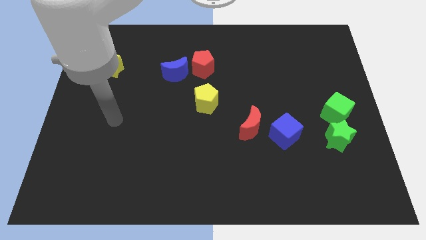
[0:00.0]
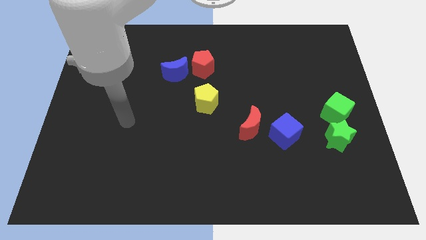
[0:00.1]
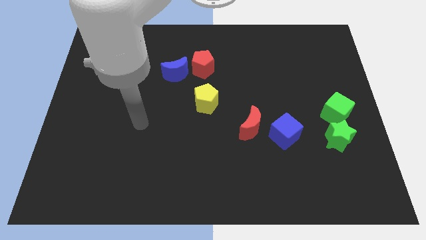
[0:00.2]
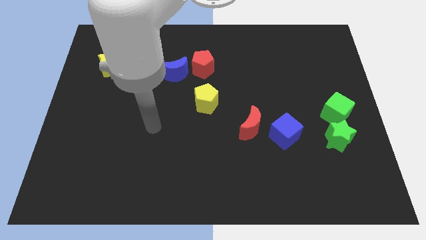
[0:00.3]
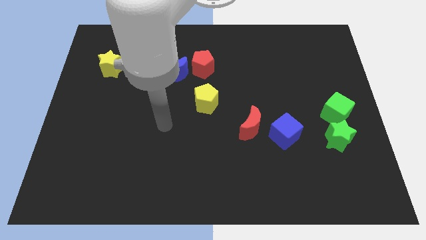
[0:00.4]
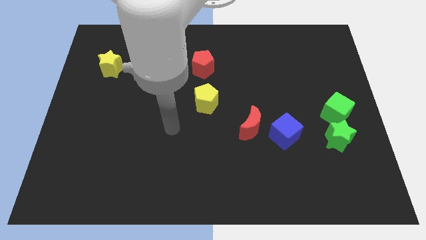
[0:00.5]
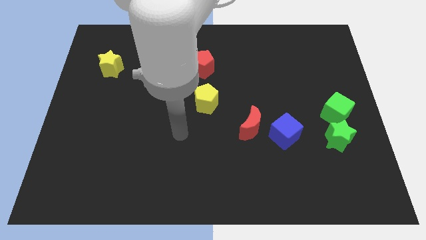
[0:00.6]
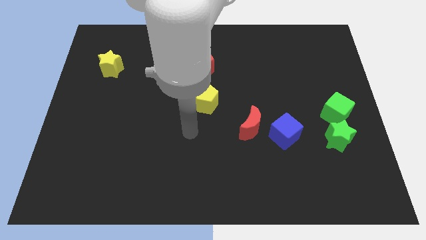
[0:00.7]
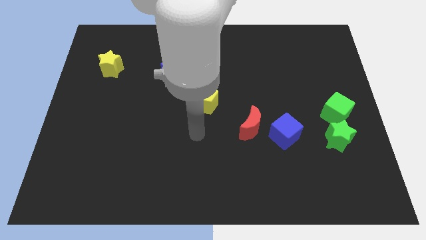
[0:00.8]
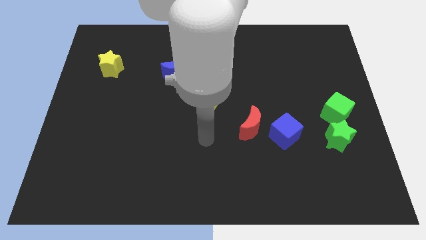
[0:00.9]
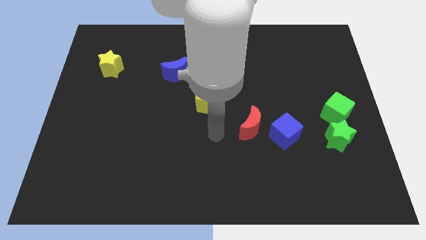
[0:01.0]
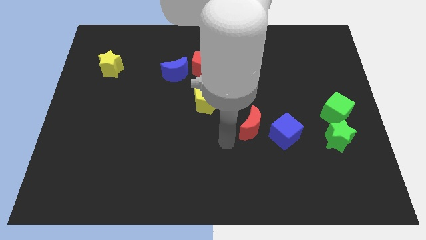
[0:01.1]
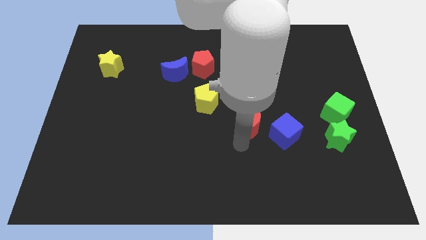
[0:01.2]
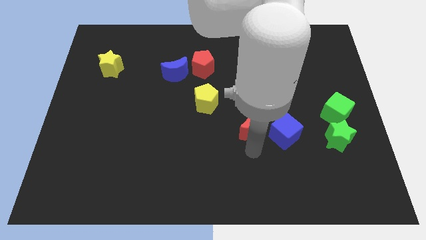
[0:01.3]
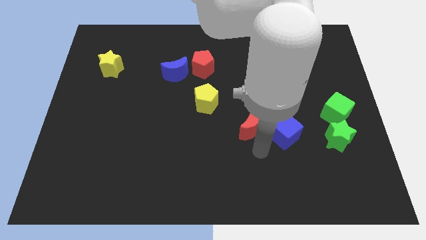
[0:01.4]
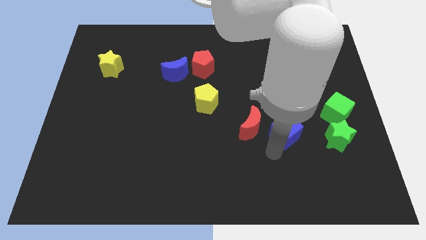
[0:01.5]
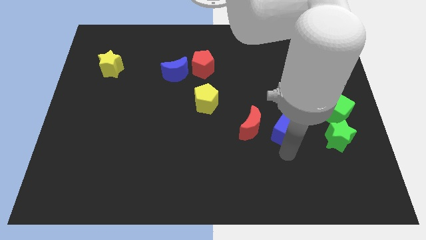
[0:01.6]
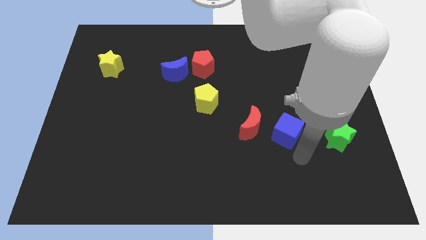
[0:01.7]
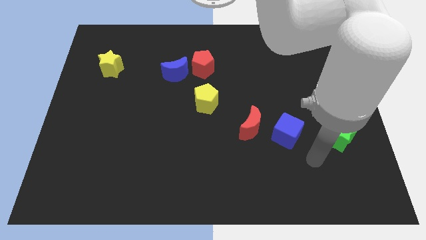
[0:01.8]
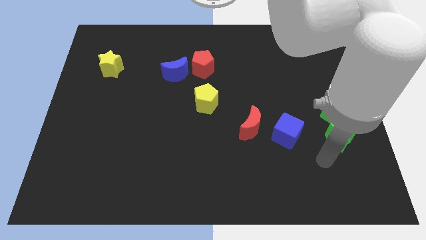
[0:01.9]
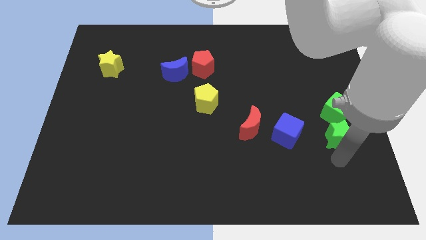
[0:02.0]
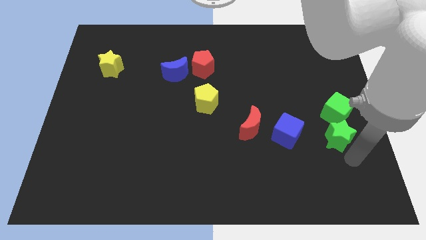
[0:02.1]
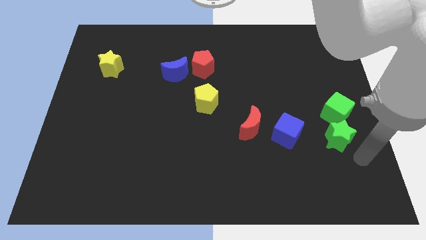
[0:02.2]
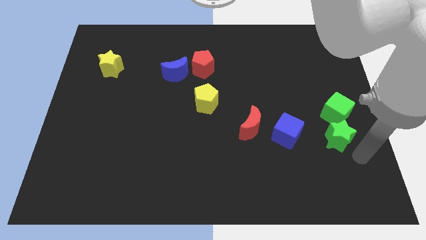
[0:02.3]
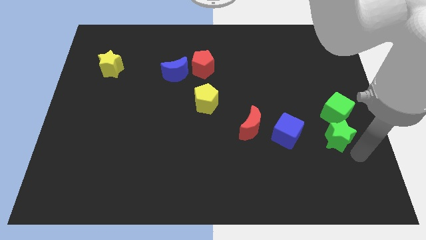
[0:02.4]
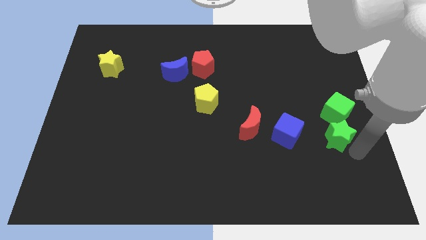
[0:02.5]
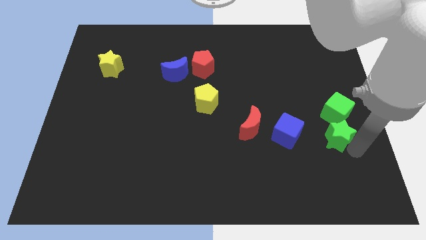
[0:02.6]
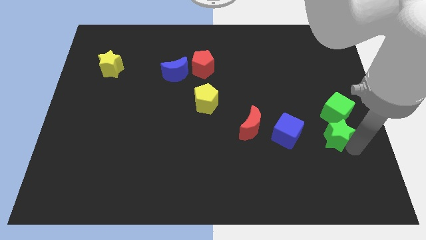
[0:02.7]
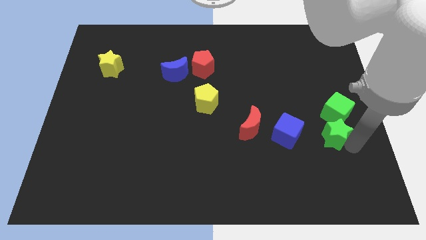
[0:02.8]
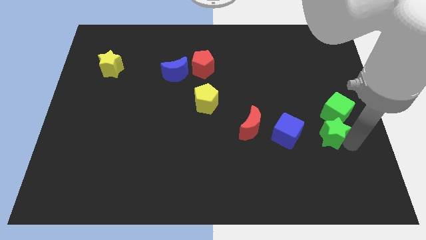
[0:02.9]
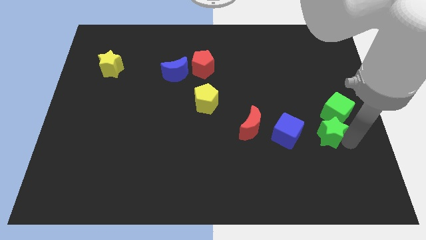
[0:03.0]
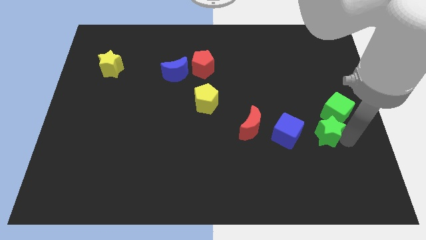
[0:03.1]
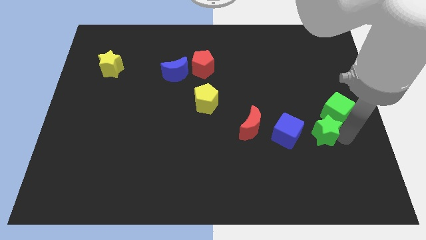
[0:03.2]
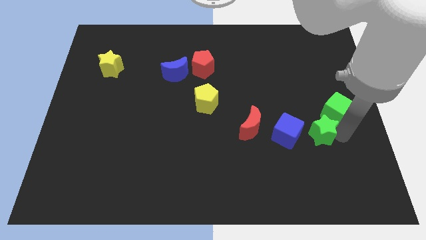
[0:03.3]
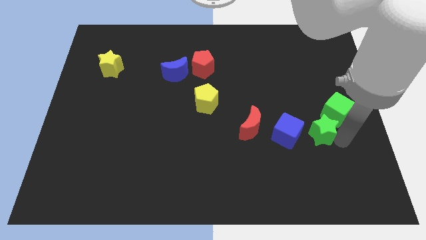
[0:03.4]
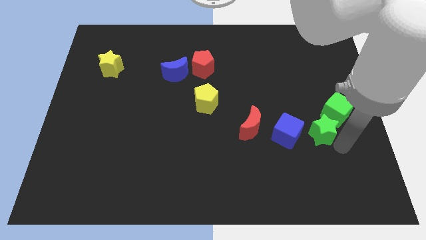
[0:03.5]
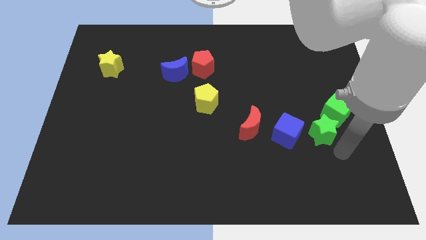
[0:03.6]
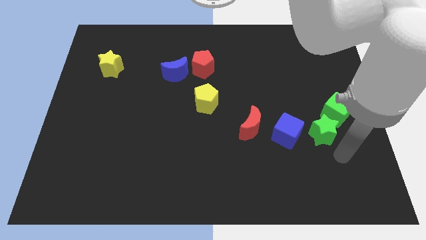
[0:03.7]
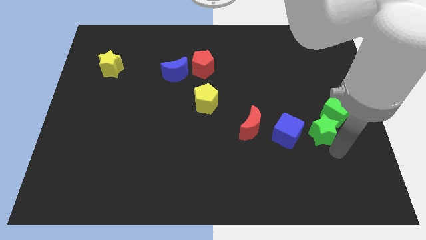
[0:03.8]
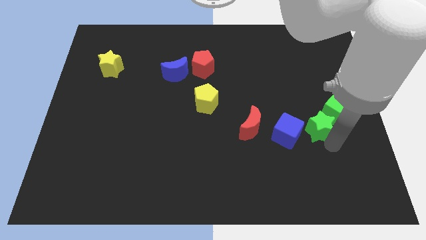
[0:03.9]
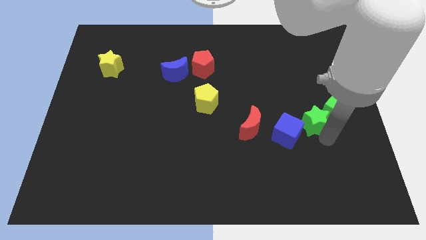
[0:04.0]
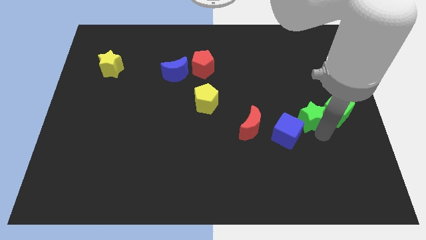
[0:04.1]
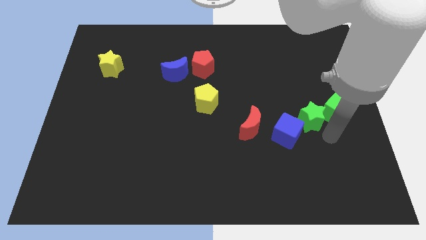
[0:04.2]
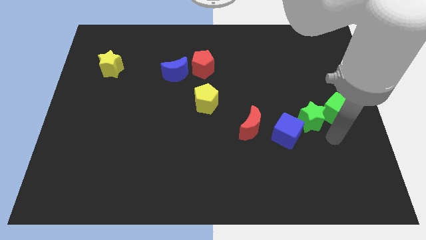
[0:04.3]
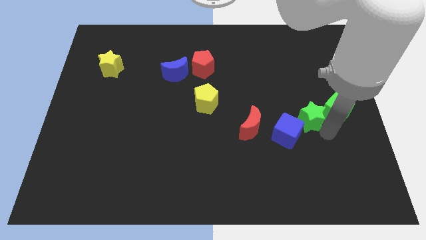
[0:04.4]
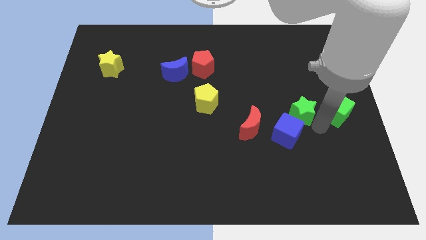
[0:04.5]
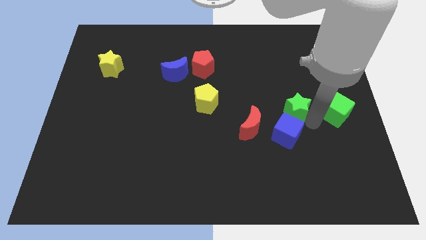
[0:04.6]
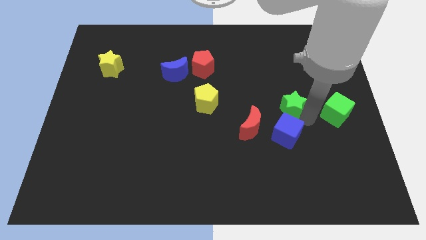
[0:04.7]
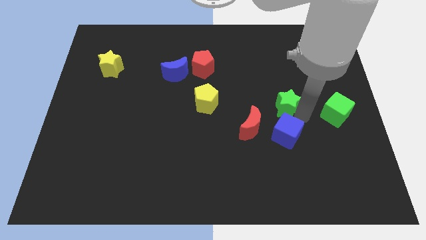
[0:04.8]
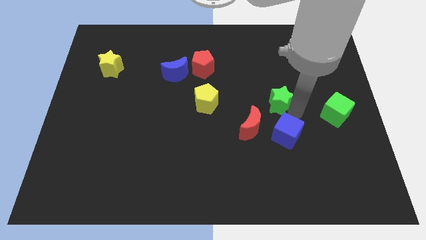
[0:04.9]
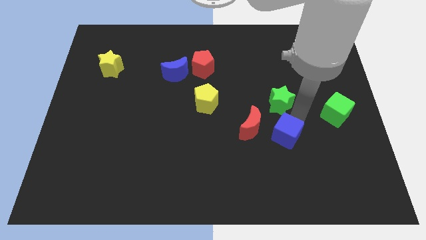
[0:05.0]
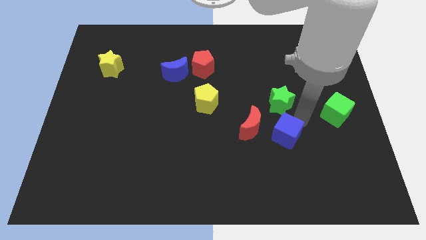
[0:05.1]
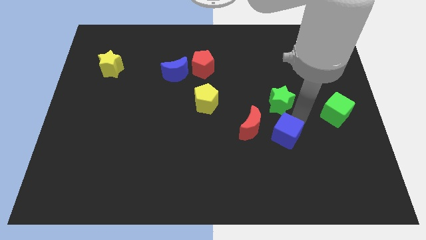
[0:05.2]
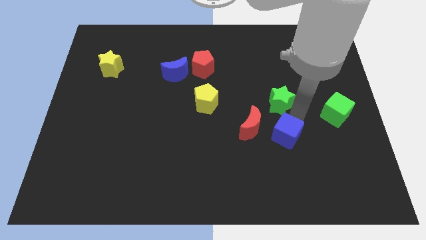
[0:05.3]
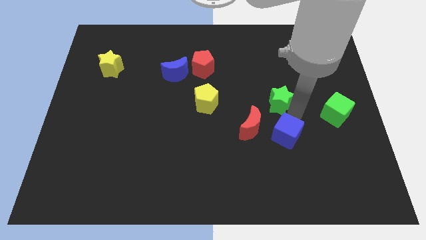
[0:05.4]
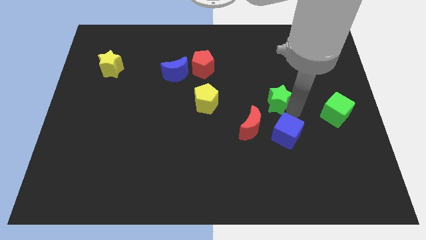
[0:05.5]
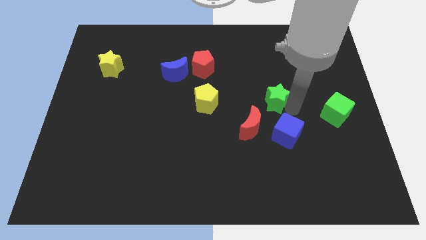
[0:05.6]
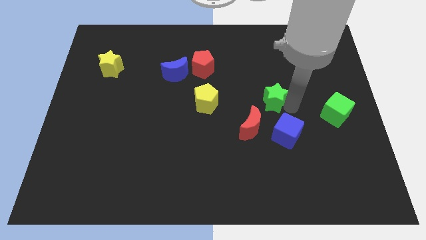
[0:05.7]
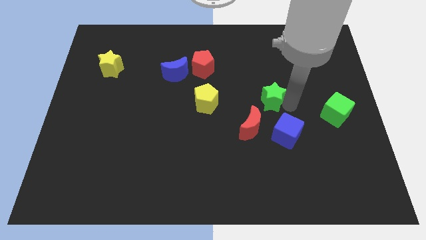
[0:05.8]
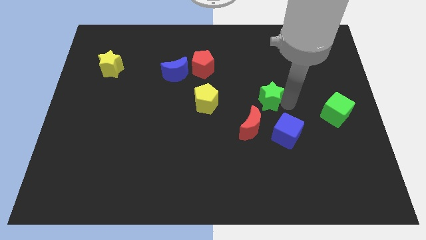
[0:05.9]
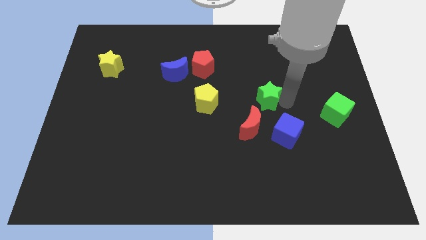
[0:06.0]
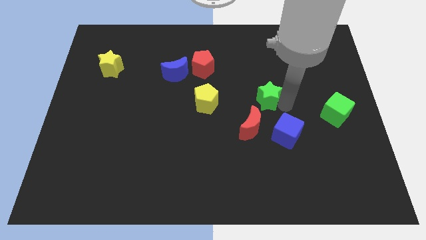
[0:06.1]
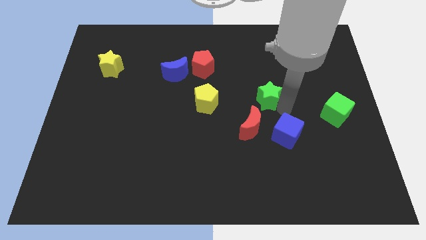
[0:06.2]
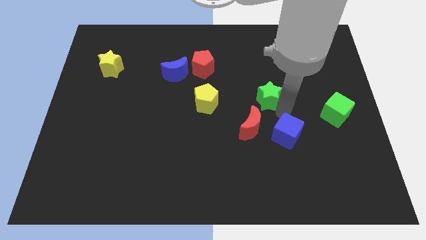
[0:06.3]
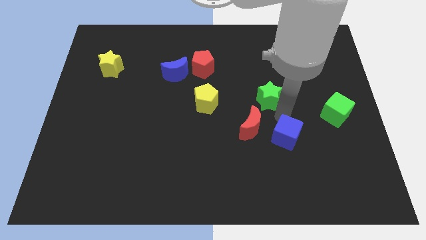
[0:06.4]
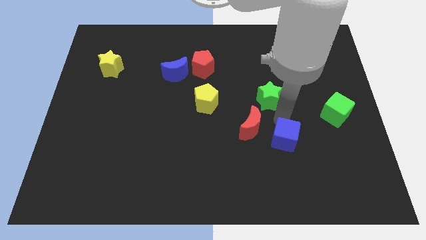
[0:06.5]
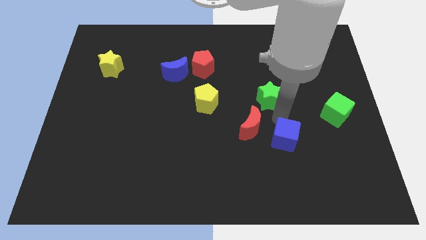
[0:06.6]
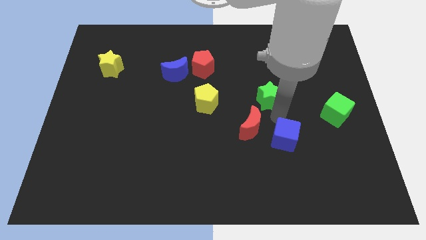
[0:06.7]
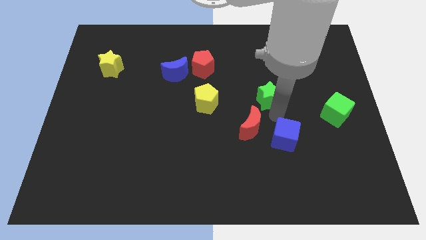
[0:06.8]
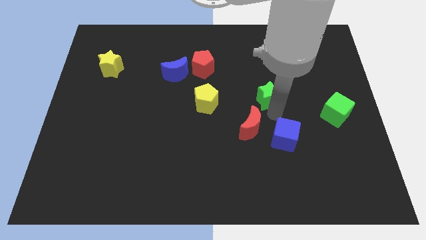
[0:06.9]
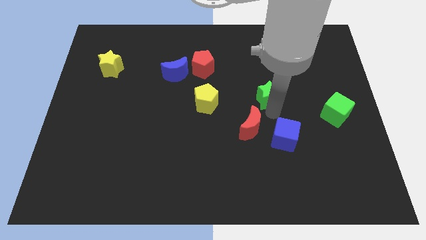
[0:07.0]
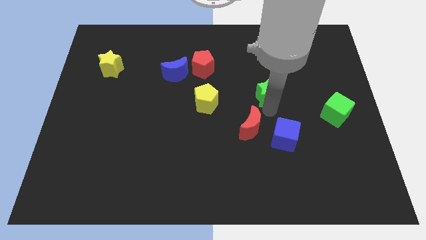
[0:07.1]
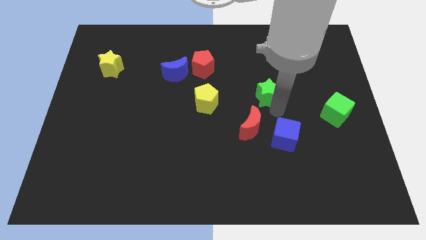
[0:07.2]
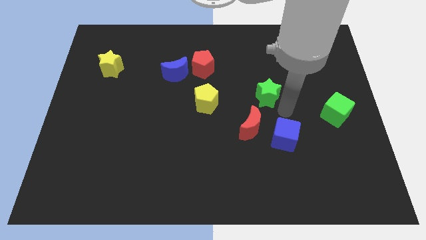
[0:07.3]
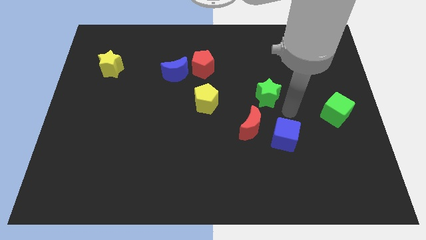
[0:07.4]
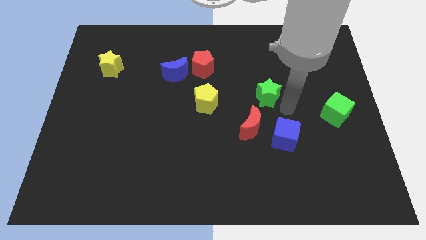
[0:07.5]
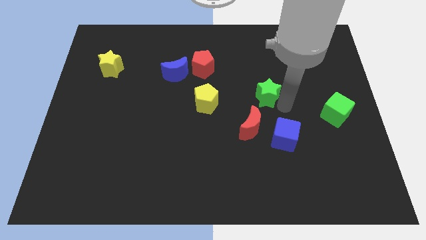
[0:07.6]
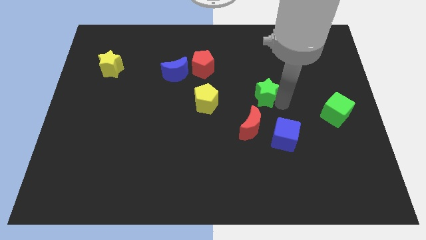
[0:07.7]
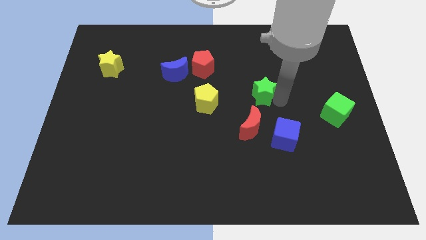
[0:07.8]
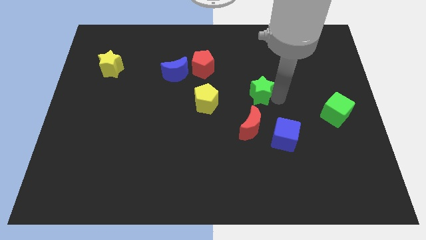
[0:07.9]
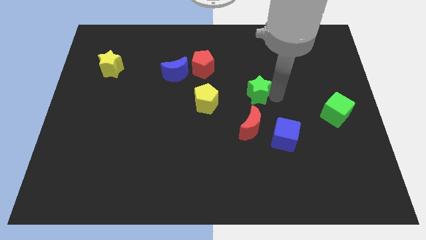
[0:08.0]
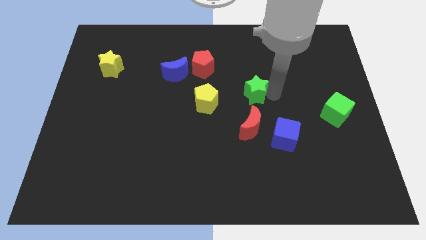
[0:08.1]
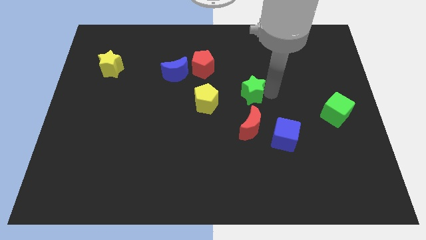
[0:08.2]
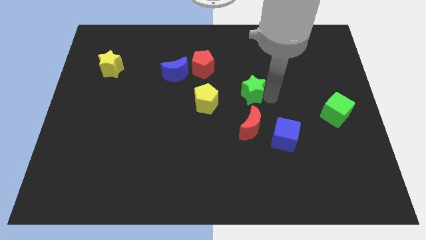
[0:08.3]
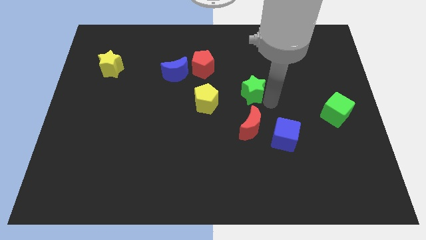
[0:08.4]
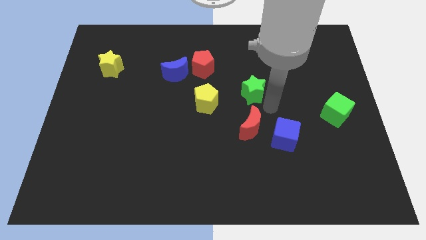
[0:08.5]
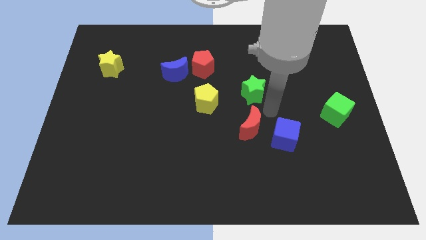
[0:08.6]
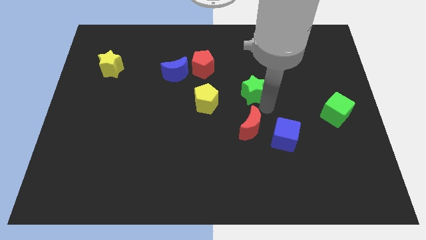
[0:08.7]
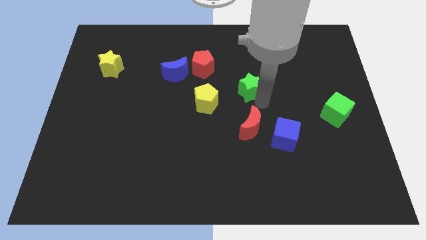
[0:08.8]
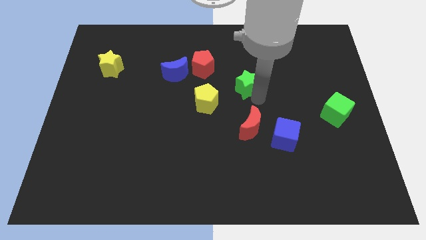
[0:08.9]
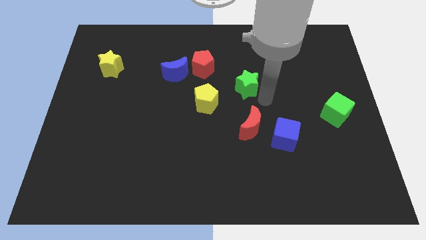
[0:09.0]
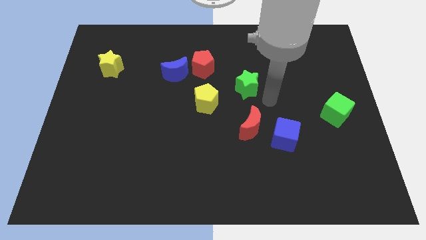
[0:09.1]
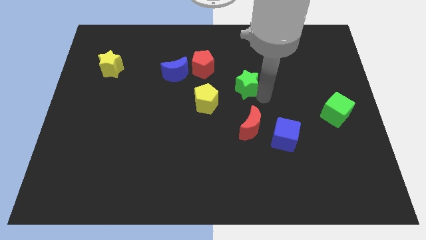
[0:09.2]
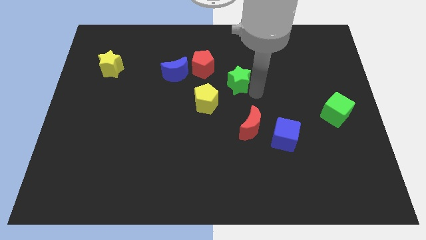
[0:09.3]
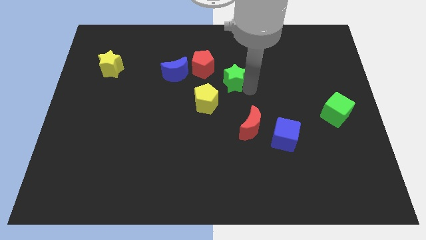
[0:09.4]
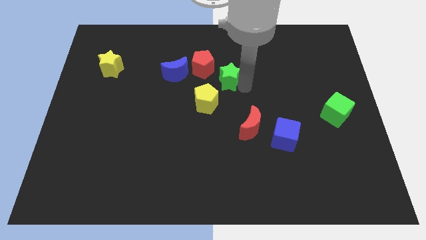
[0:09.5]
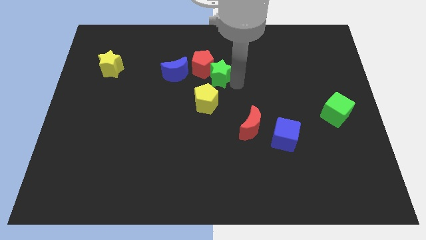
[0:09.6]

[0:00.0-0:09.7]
slide the green star next to the red pentagon
